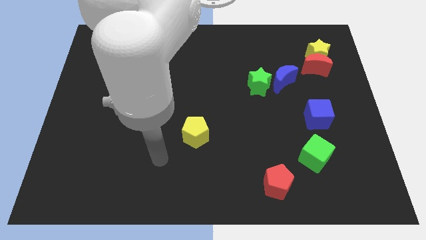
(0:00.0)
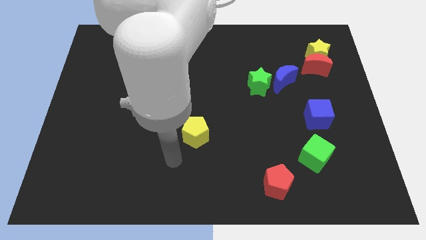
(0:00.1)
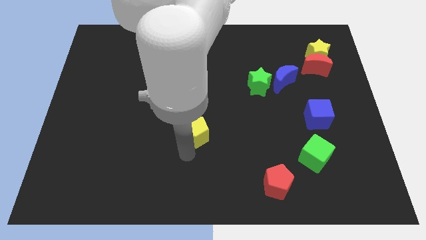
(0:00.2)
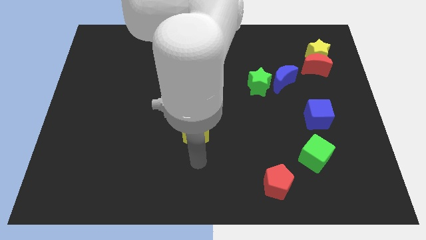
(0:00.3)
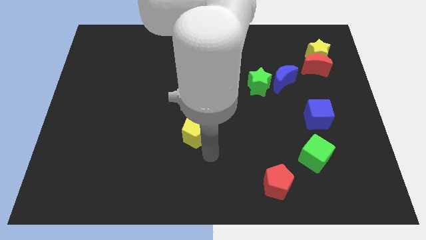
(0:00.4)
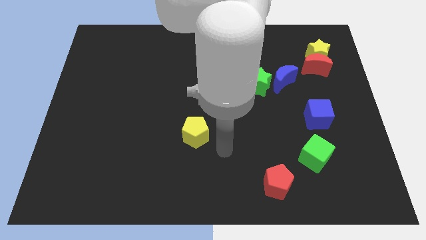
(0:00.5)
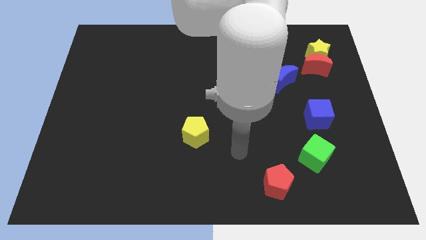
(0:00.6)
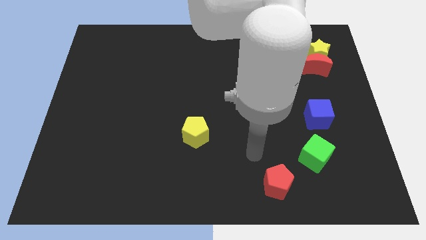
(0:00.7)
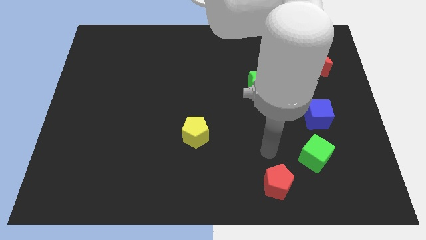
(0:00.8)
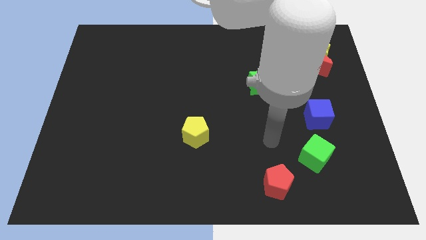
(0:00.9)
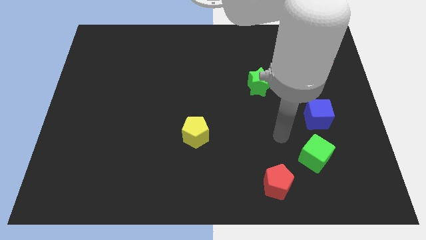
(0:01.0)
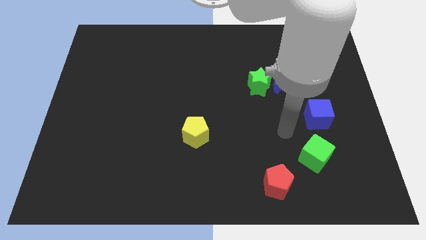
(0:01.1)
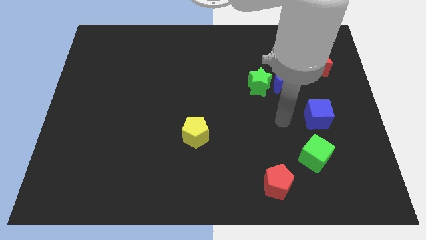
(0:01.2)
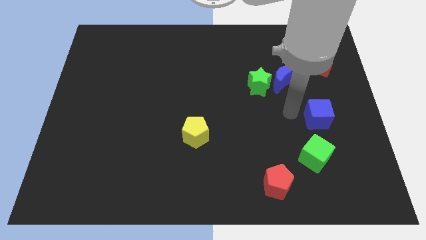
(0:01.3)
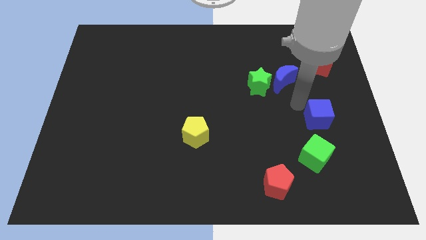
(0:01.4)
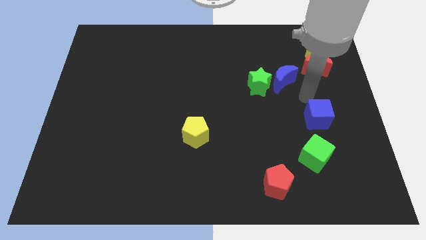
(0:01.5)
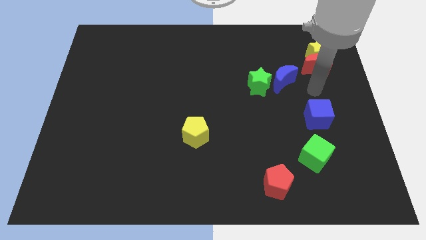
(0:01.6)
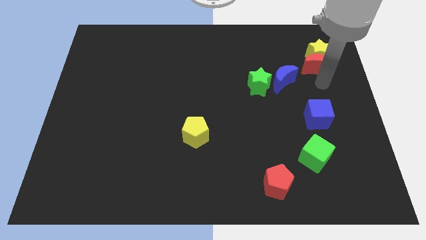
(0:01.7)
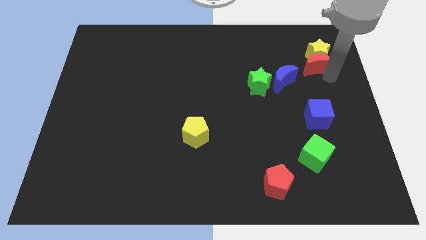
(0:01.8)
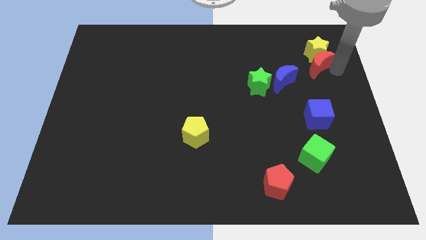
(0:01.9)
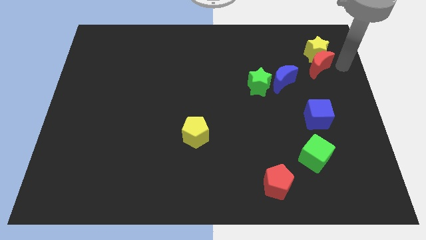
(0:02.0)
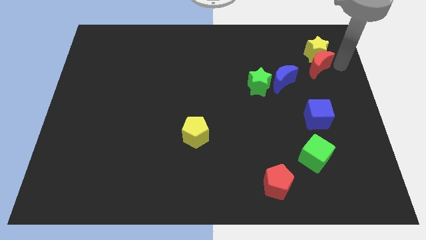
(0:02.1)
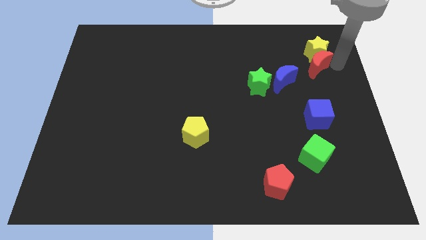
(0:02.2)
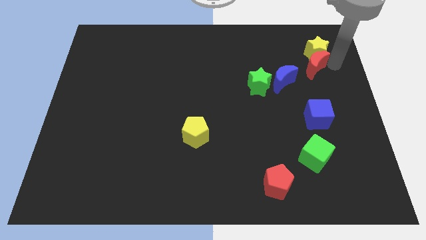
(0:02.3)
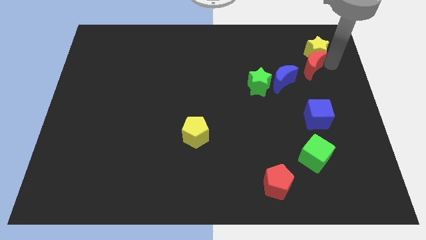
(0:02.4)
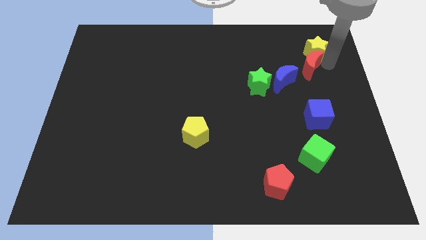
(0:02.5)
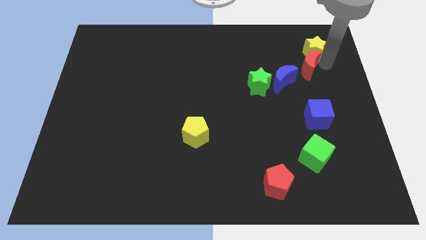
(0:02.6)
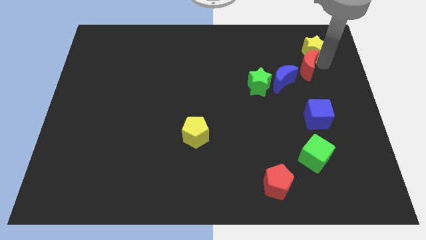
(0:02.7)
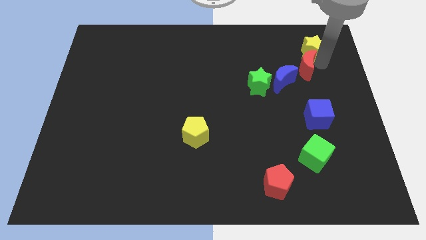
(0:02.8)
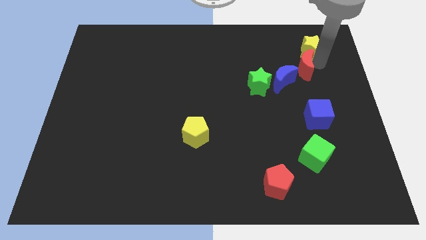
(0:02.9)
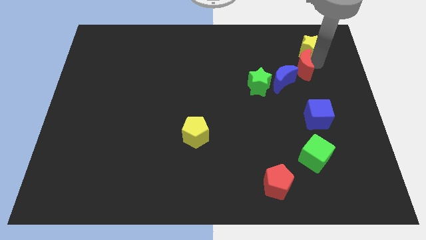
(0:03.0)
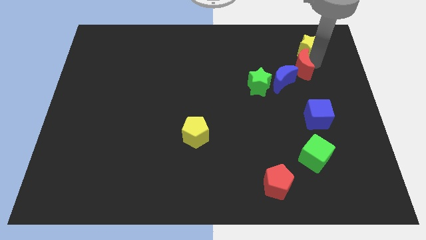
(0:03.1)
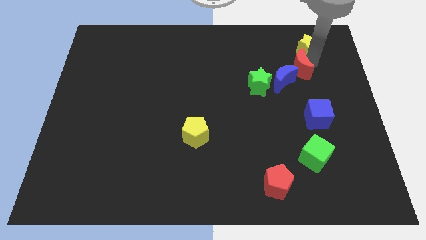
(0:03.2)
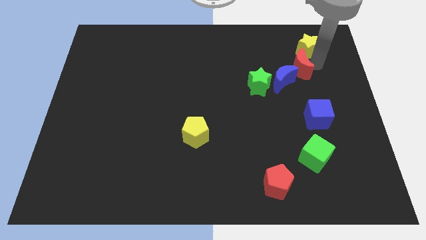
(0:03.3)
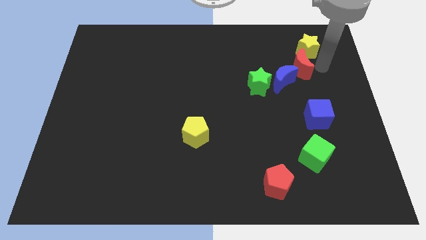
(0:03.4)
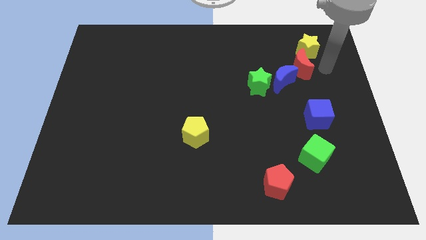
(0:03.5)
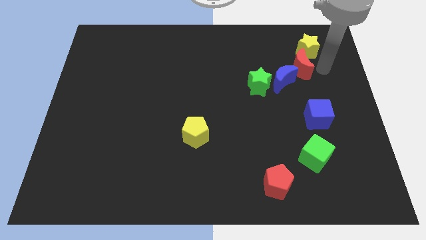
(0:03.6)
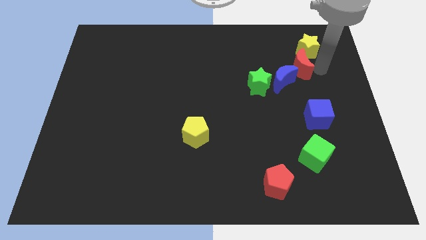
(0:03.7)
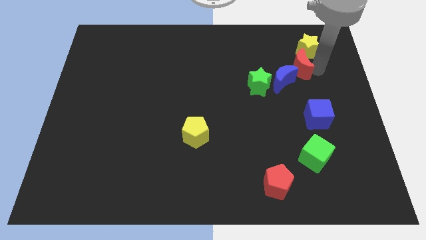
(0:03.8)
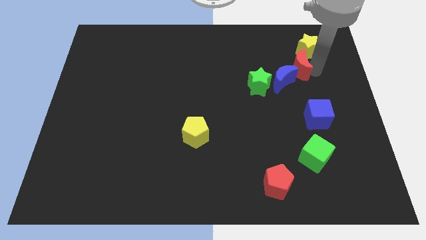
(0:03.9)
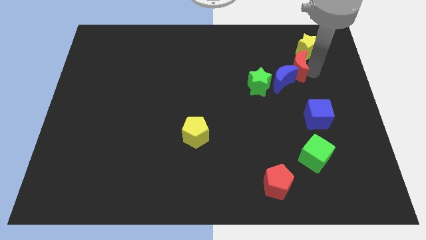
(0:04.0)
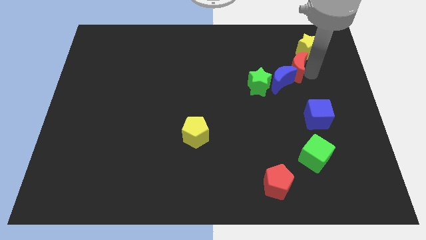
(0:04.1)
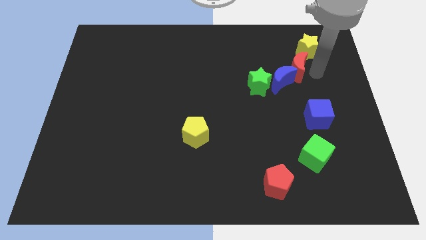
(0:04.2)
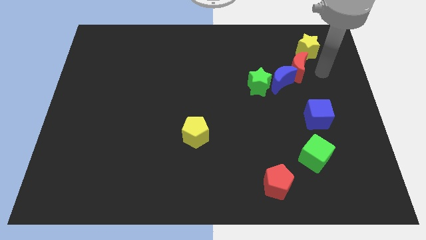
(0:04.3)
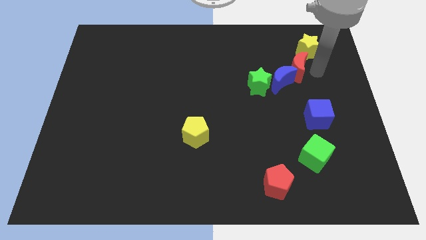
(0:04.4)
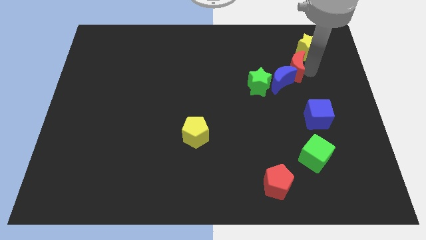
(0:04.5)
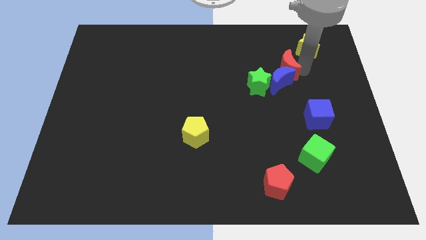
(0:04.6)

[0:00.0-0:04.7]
move the red moon left a bit

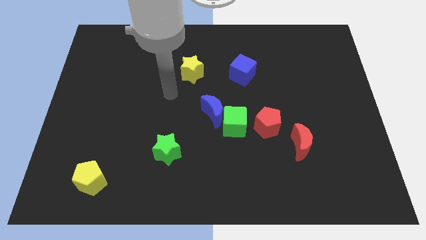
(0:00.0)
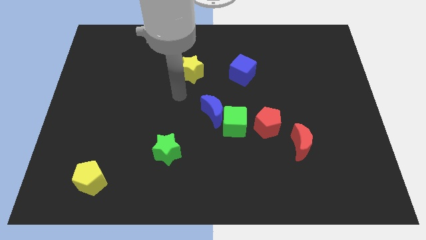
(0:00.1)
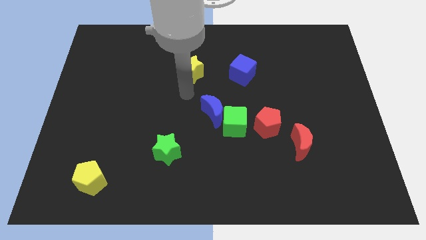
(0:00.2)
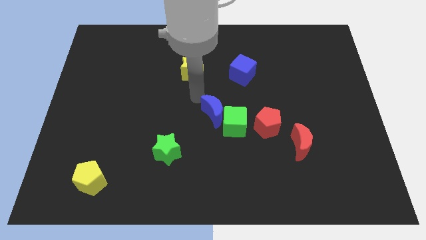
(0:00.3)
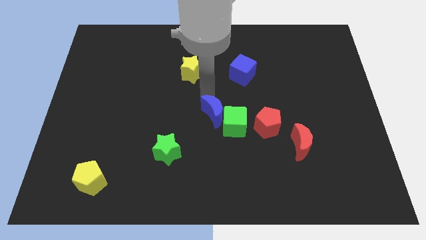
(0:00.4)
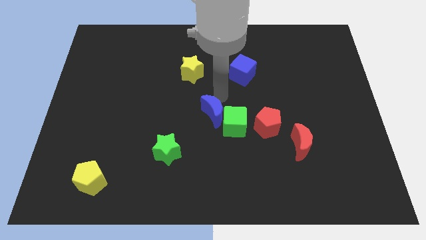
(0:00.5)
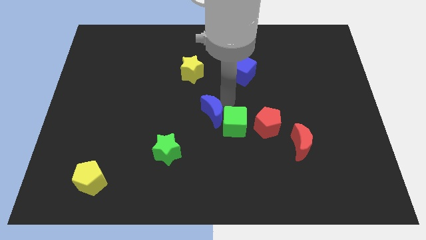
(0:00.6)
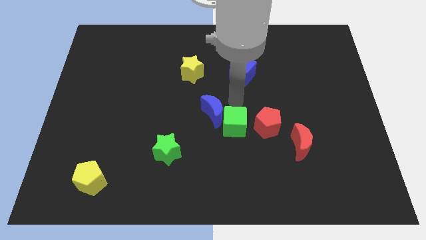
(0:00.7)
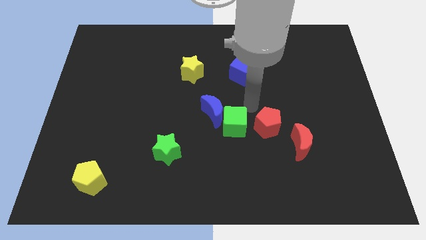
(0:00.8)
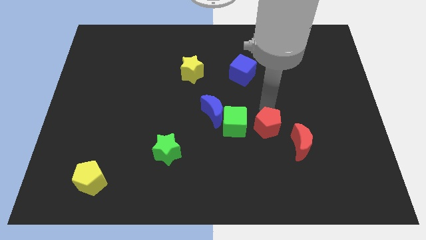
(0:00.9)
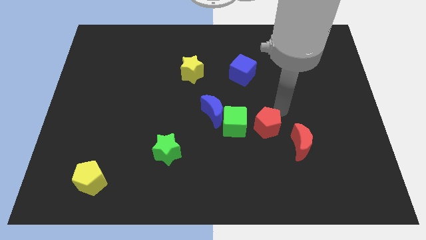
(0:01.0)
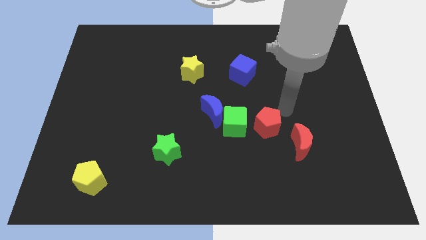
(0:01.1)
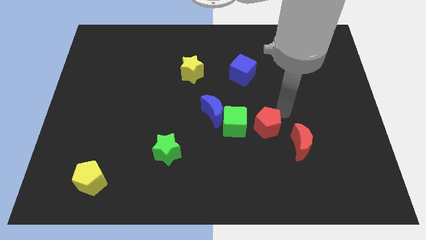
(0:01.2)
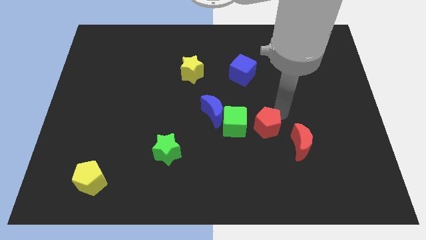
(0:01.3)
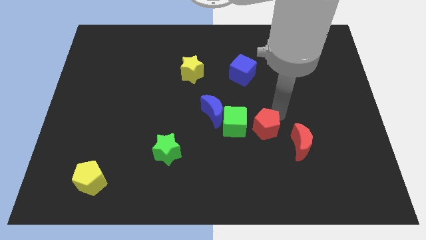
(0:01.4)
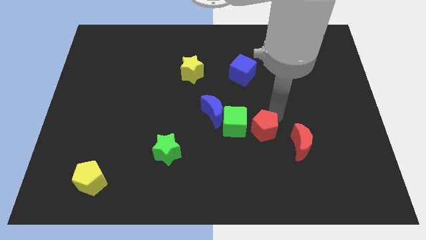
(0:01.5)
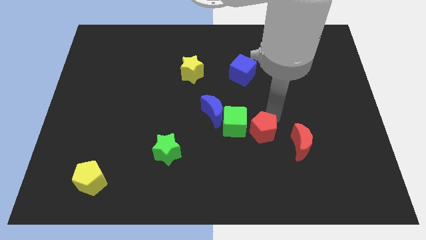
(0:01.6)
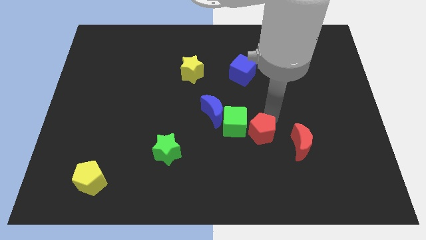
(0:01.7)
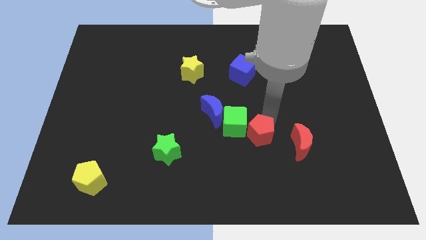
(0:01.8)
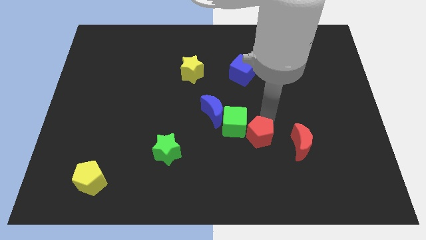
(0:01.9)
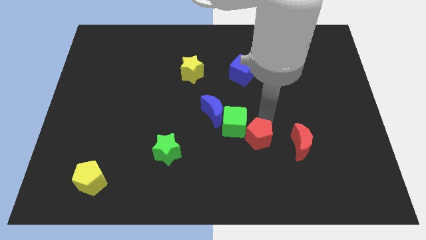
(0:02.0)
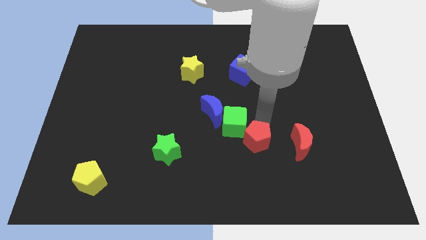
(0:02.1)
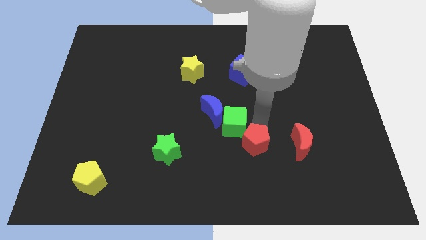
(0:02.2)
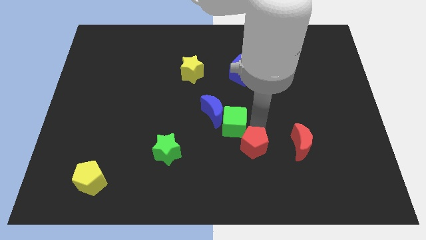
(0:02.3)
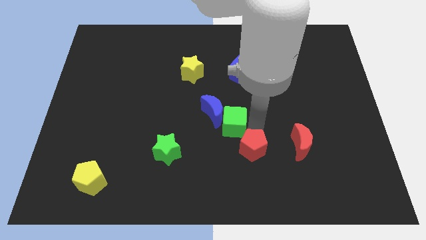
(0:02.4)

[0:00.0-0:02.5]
slightly push the red pentagon diagonally downwards and to the left

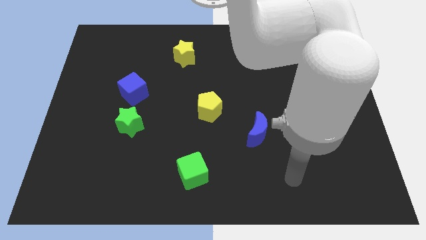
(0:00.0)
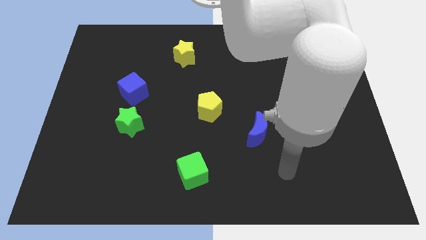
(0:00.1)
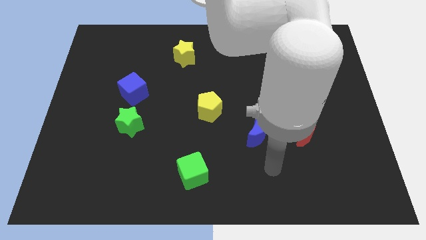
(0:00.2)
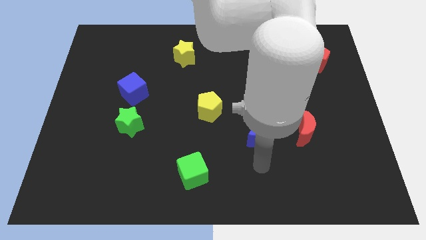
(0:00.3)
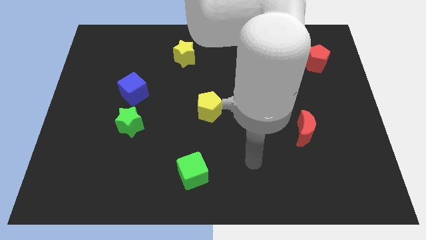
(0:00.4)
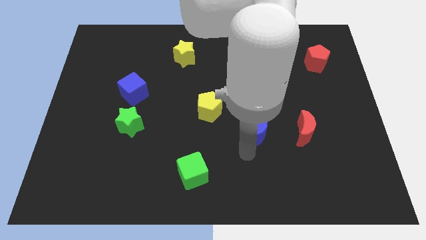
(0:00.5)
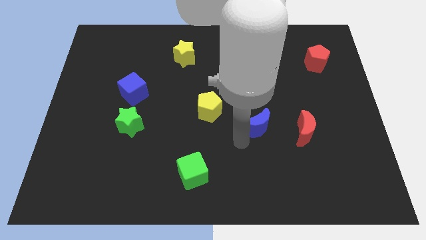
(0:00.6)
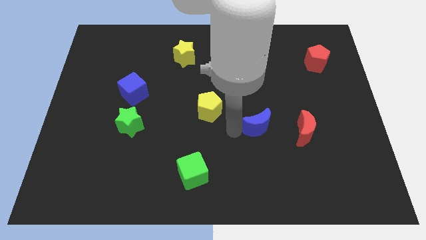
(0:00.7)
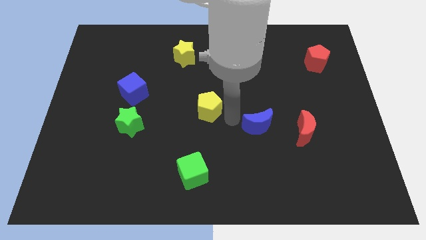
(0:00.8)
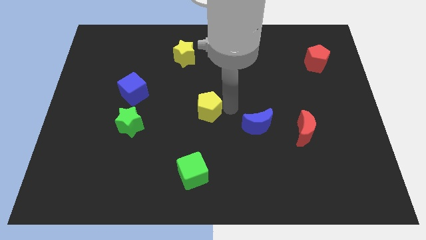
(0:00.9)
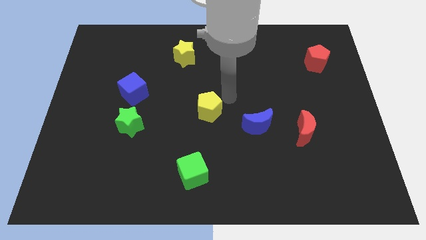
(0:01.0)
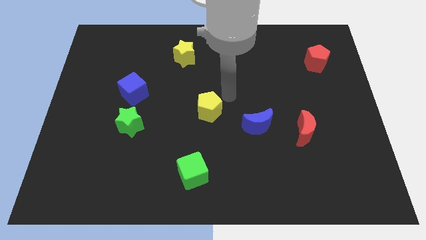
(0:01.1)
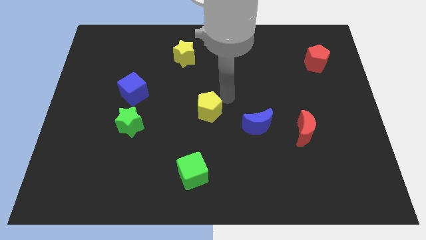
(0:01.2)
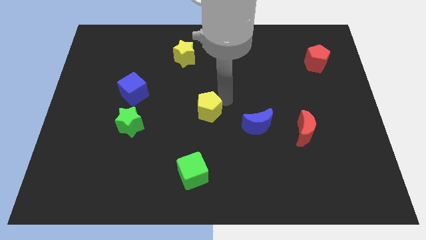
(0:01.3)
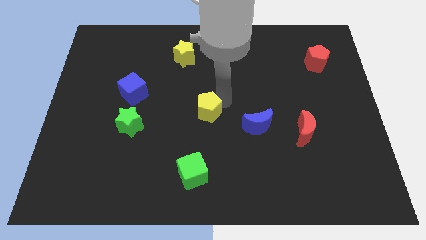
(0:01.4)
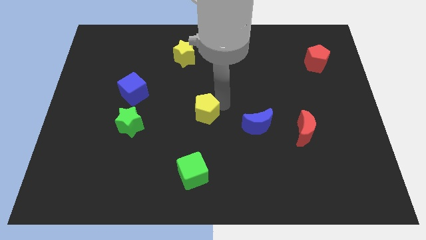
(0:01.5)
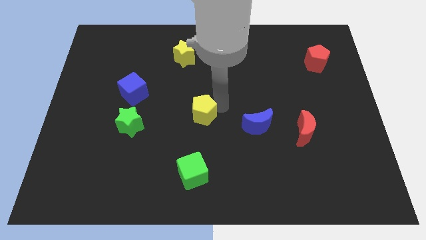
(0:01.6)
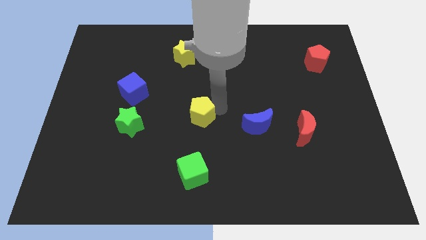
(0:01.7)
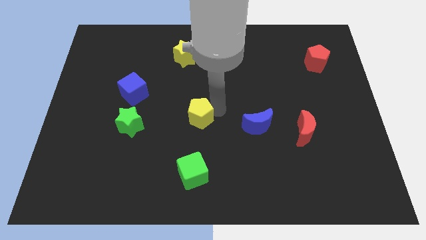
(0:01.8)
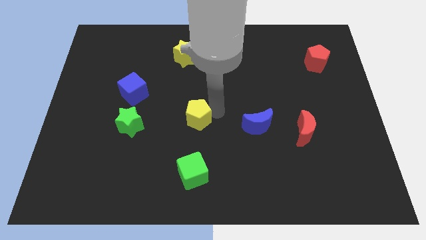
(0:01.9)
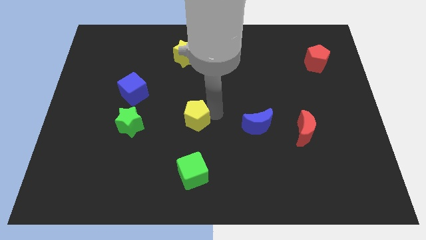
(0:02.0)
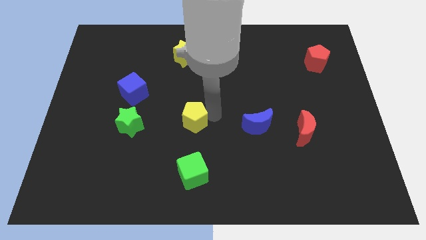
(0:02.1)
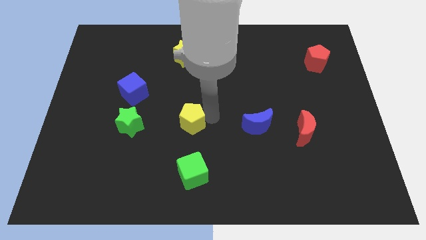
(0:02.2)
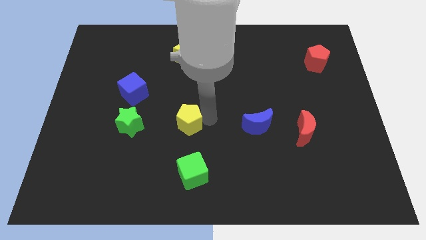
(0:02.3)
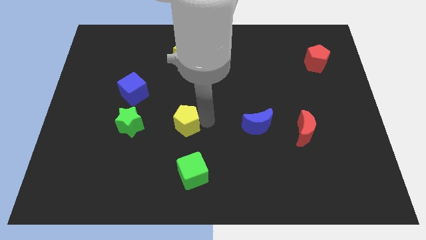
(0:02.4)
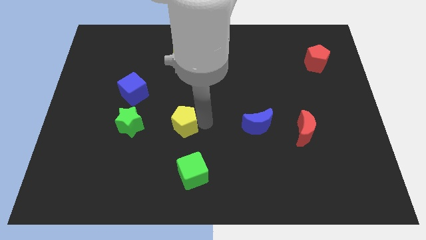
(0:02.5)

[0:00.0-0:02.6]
push the yellow pentagon somewhat downwards and left
